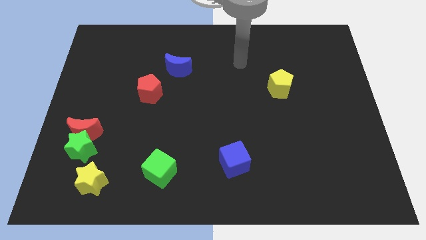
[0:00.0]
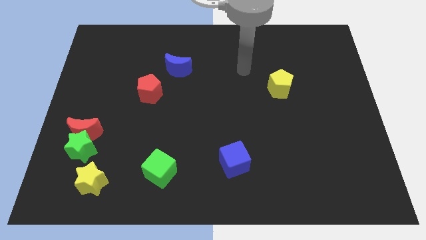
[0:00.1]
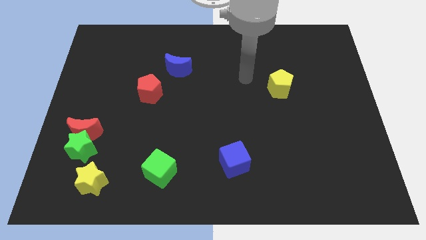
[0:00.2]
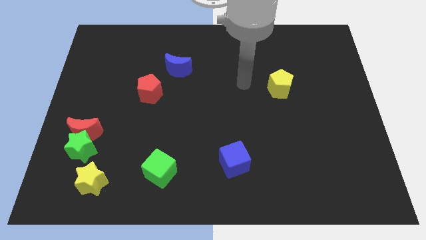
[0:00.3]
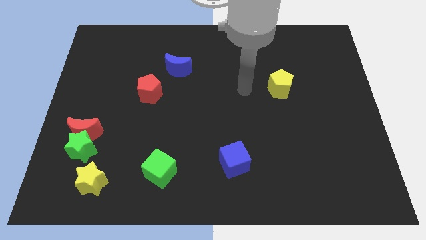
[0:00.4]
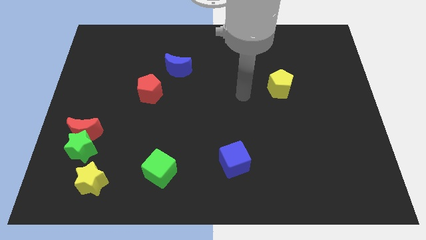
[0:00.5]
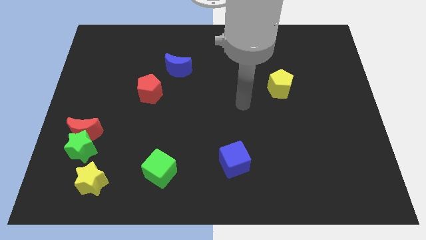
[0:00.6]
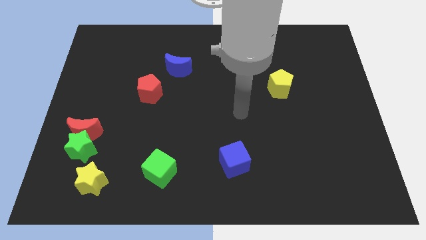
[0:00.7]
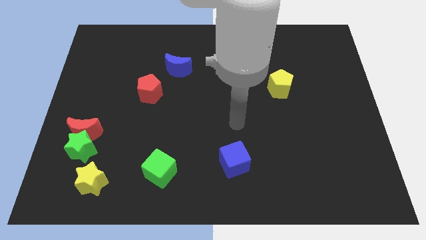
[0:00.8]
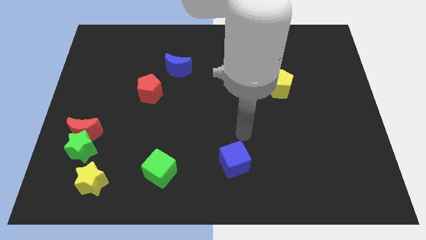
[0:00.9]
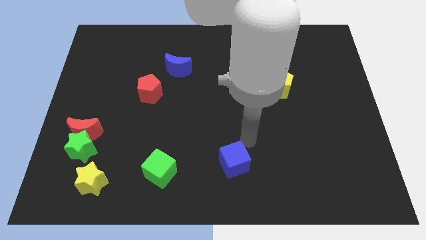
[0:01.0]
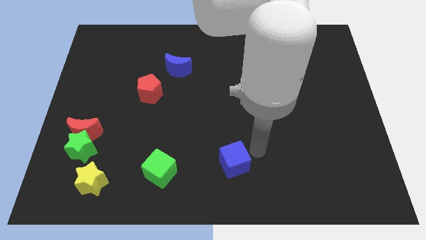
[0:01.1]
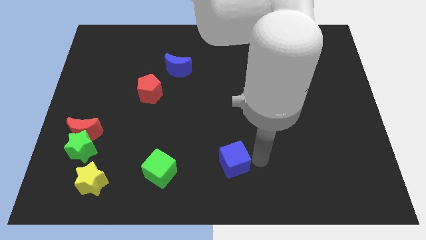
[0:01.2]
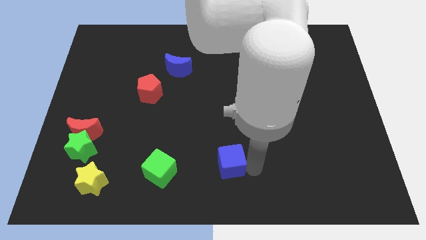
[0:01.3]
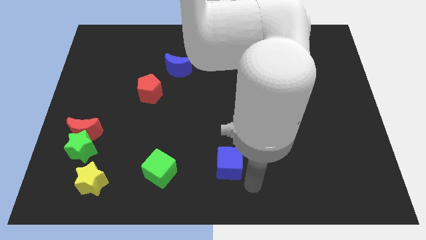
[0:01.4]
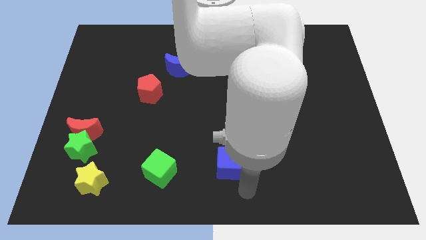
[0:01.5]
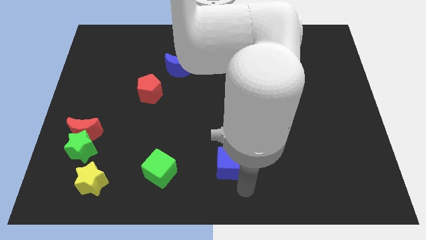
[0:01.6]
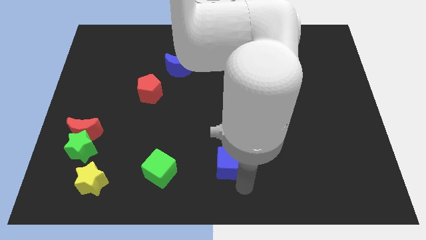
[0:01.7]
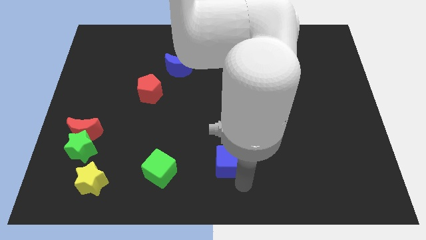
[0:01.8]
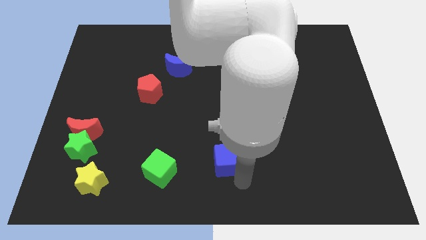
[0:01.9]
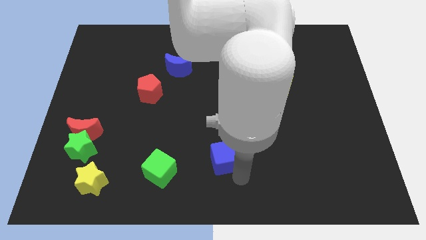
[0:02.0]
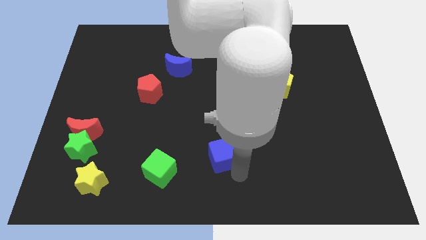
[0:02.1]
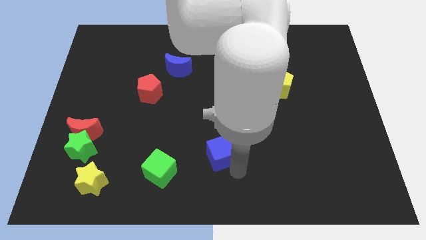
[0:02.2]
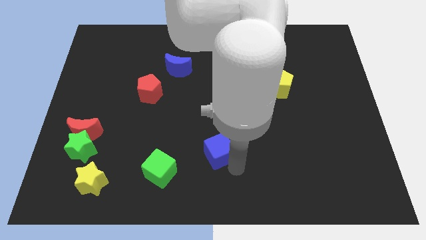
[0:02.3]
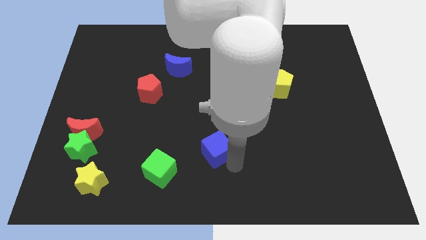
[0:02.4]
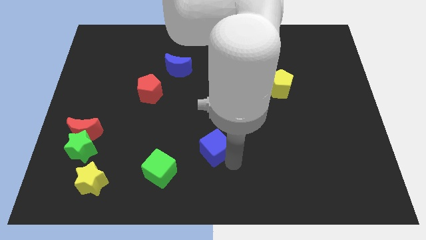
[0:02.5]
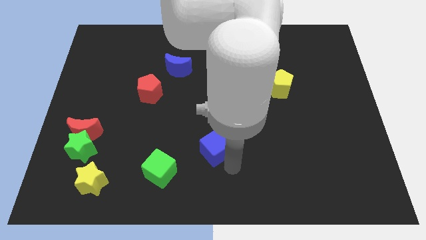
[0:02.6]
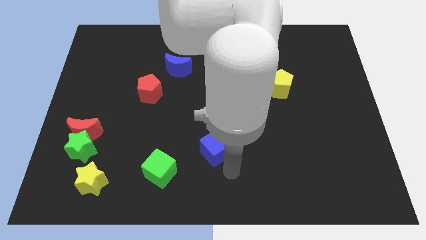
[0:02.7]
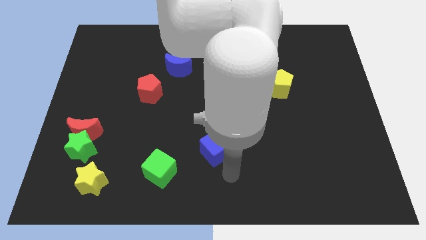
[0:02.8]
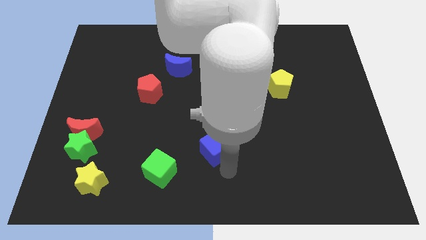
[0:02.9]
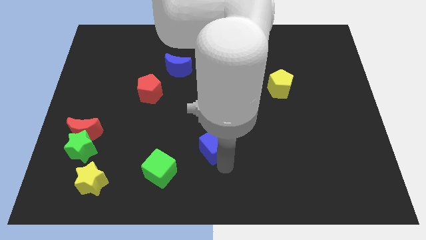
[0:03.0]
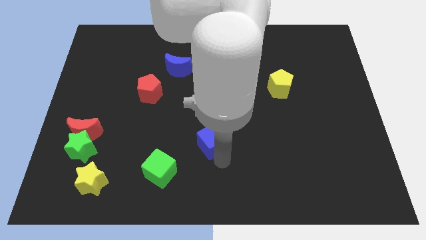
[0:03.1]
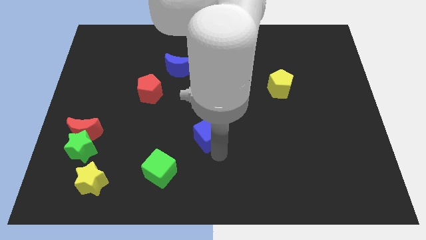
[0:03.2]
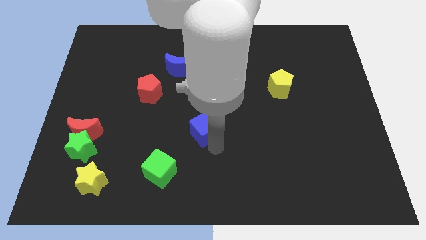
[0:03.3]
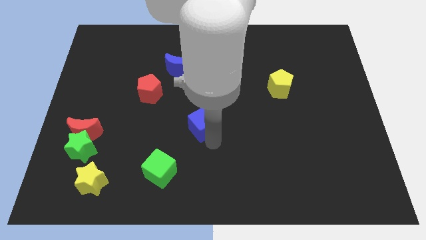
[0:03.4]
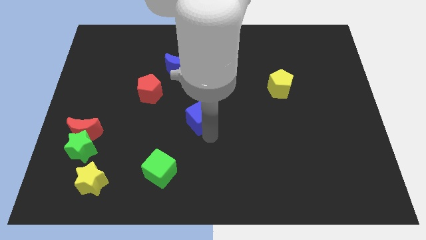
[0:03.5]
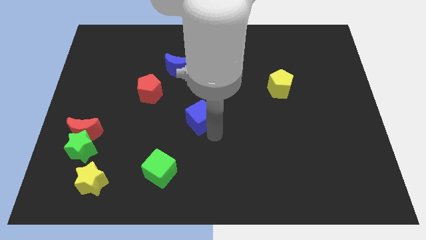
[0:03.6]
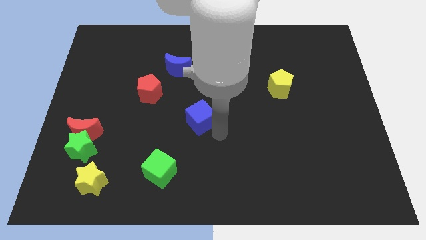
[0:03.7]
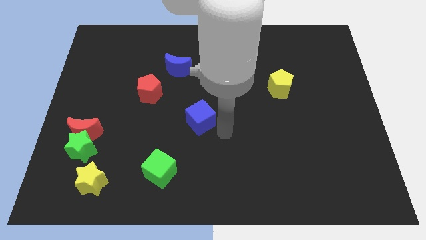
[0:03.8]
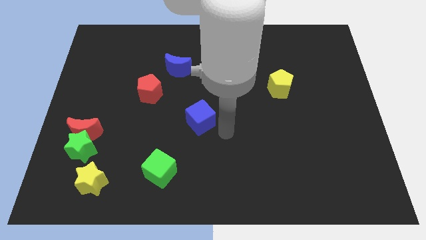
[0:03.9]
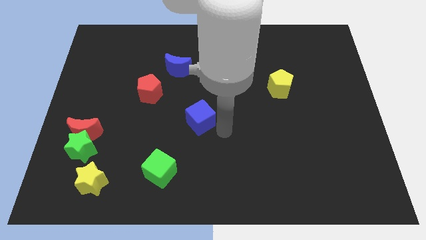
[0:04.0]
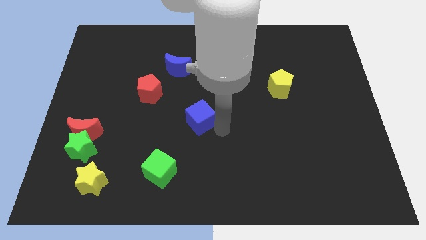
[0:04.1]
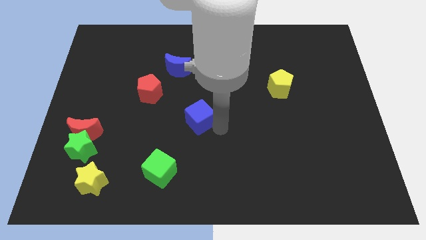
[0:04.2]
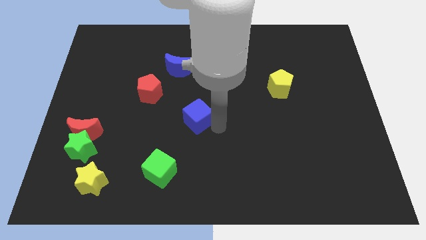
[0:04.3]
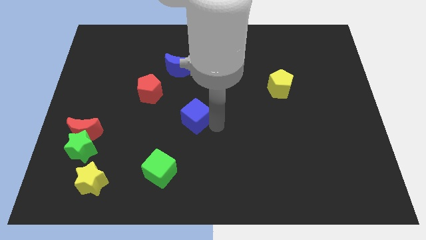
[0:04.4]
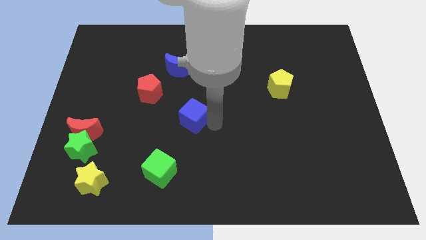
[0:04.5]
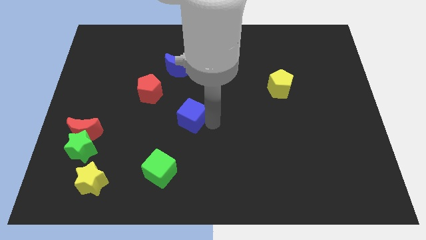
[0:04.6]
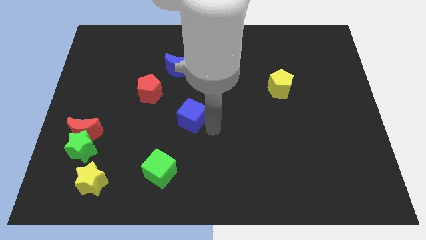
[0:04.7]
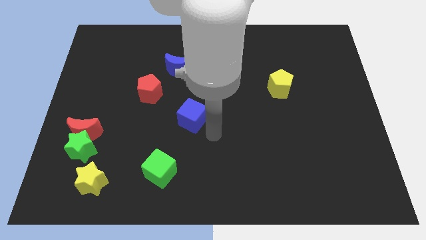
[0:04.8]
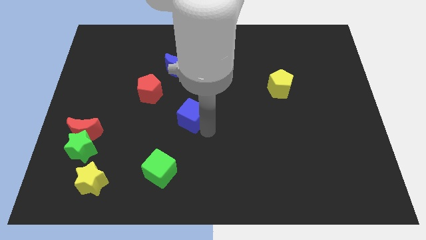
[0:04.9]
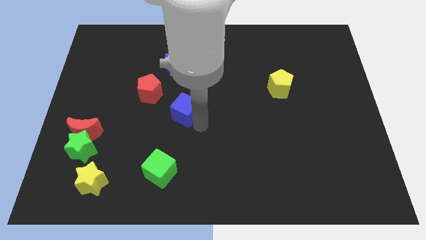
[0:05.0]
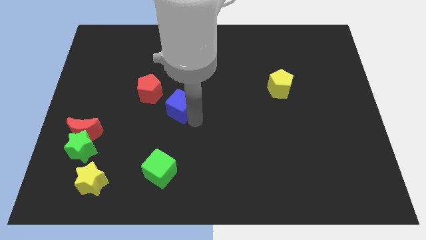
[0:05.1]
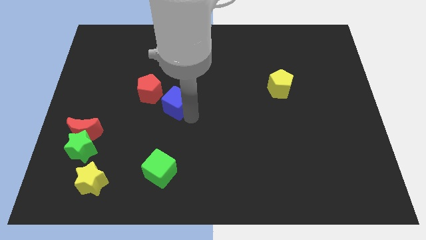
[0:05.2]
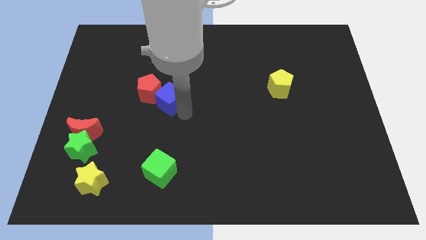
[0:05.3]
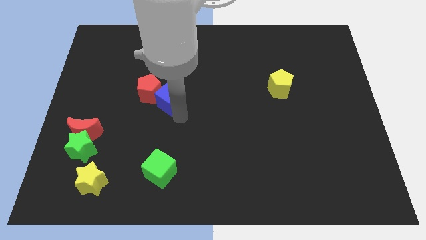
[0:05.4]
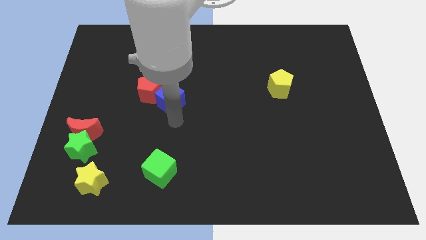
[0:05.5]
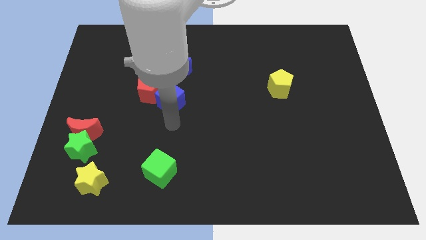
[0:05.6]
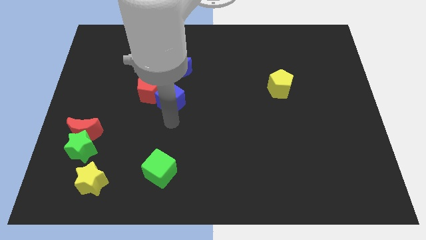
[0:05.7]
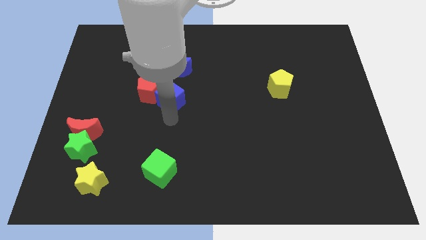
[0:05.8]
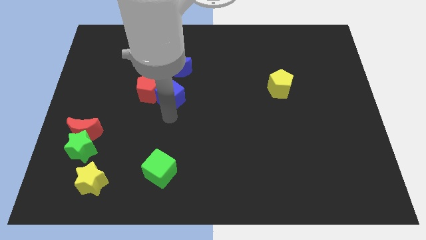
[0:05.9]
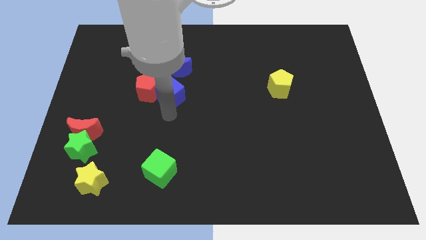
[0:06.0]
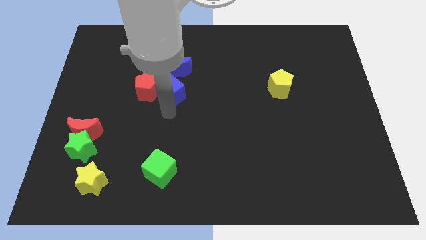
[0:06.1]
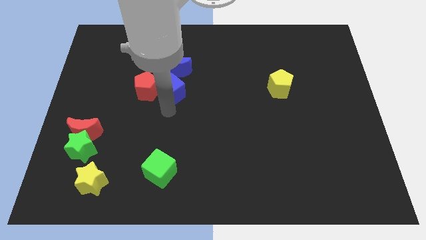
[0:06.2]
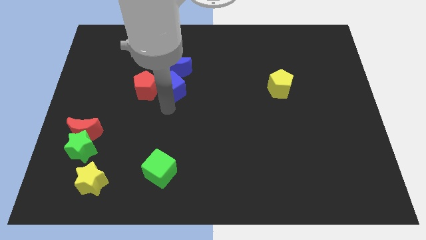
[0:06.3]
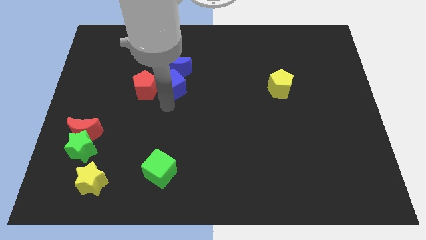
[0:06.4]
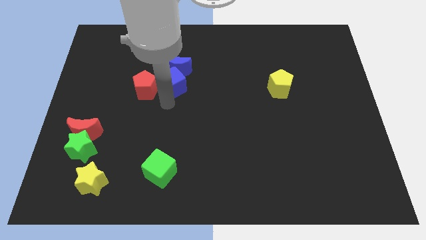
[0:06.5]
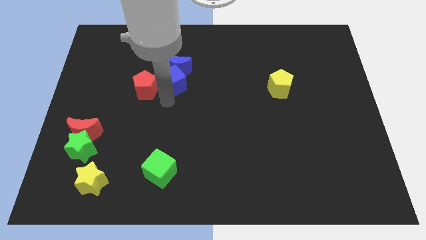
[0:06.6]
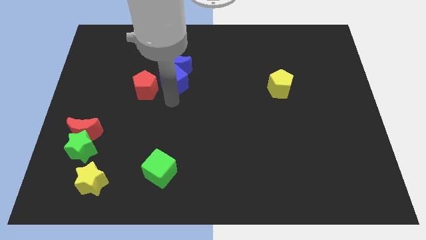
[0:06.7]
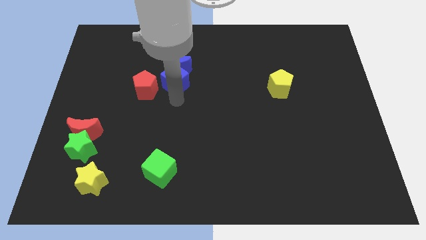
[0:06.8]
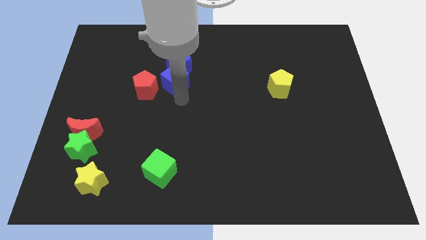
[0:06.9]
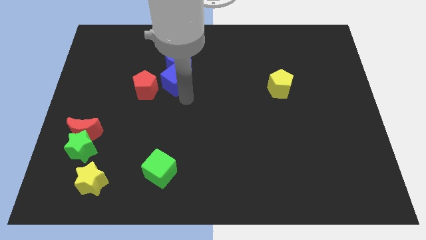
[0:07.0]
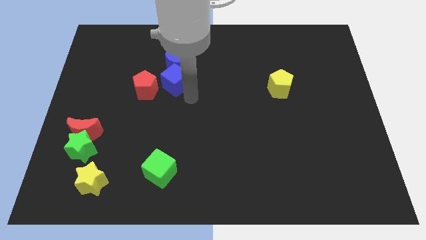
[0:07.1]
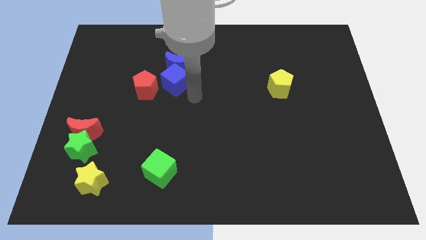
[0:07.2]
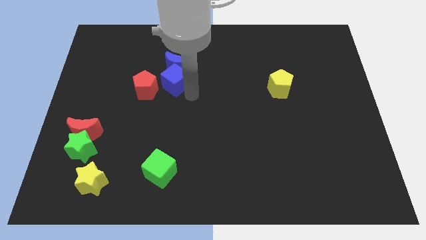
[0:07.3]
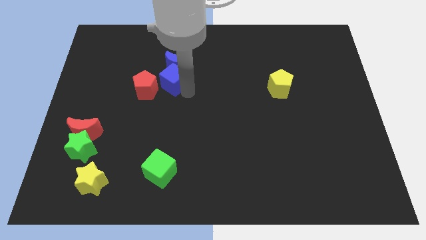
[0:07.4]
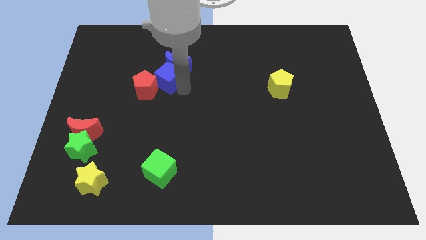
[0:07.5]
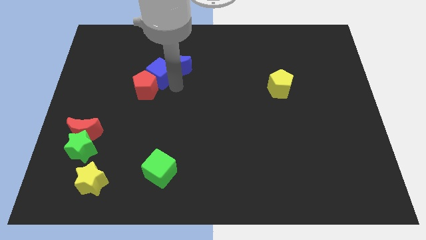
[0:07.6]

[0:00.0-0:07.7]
slide the blue cube to the top side of the red pentagon

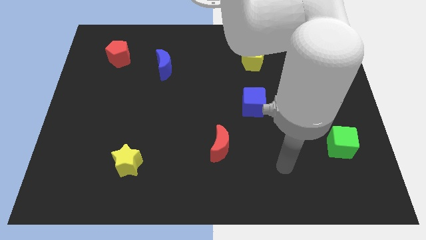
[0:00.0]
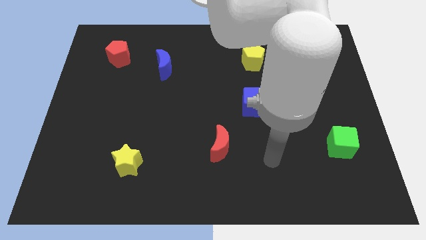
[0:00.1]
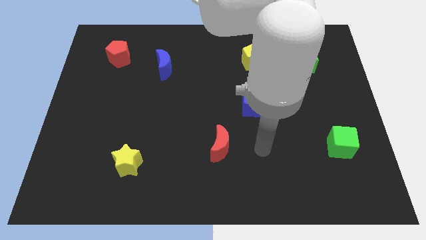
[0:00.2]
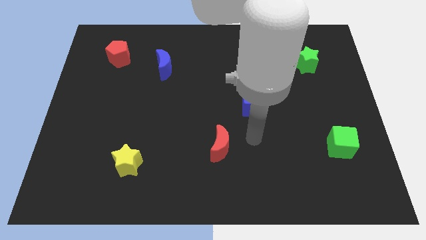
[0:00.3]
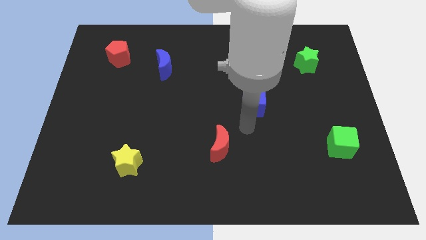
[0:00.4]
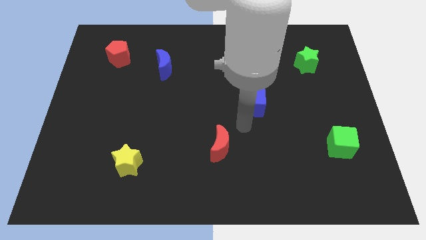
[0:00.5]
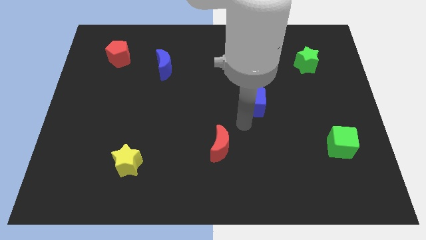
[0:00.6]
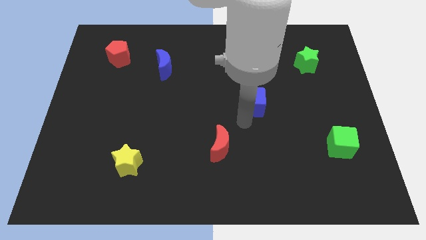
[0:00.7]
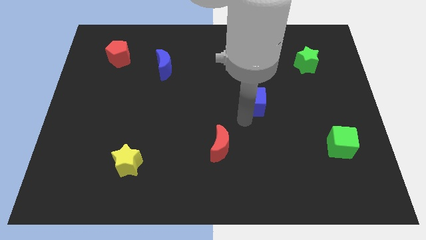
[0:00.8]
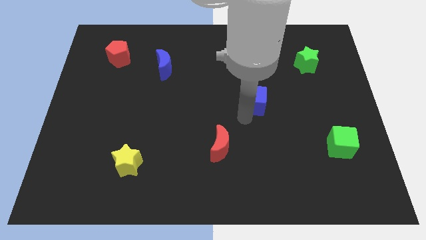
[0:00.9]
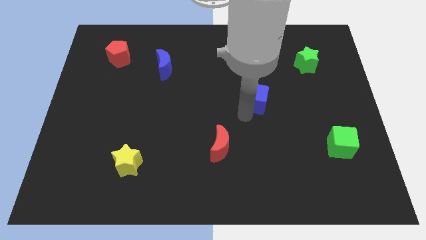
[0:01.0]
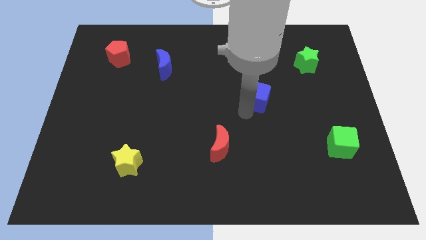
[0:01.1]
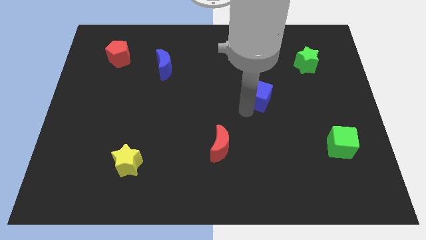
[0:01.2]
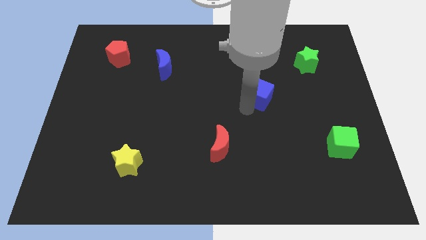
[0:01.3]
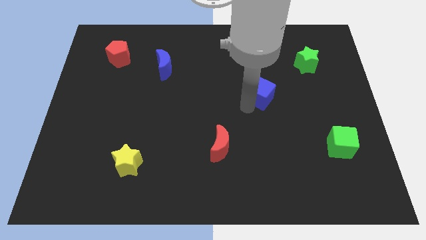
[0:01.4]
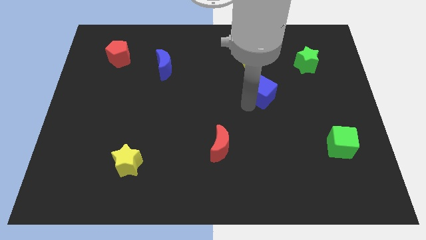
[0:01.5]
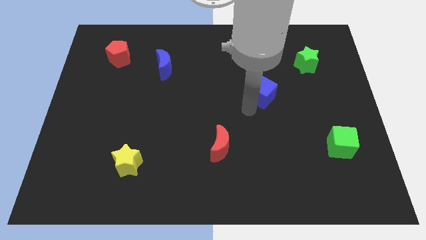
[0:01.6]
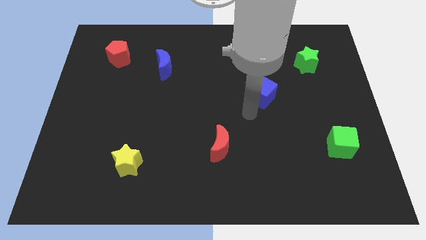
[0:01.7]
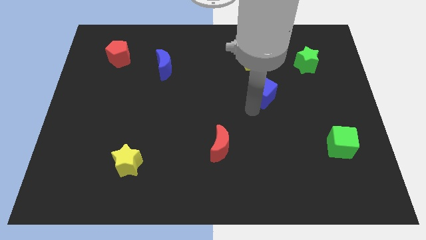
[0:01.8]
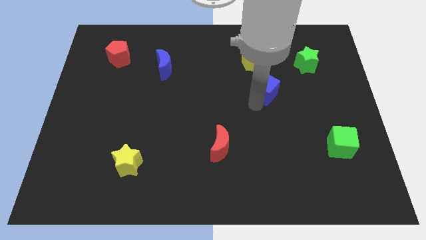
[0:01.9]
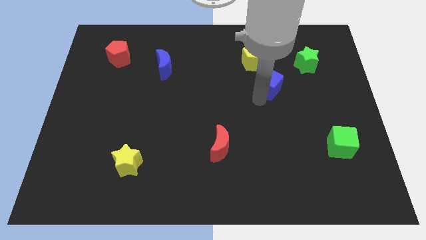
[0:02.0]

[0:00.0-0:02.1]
push the blue cube diagonally down and to the right of the yellow pentagon
